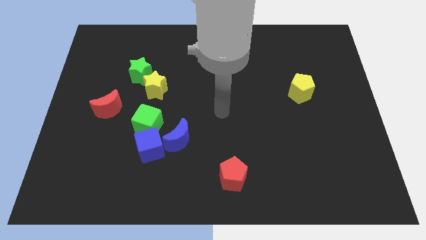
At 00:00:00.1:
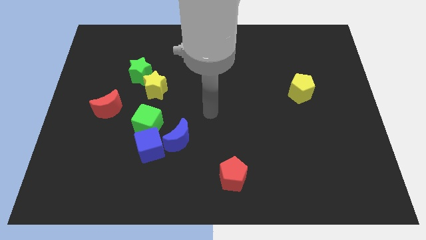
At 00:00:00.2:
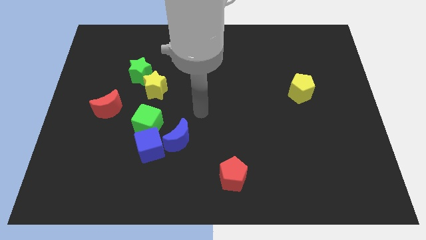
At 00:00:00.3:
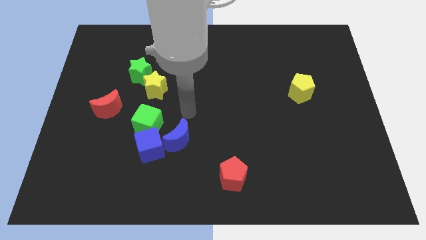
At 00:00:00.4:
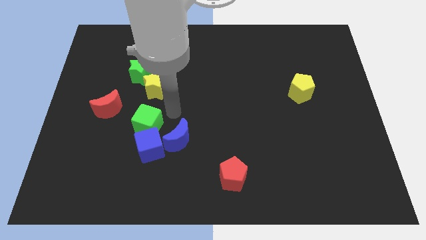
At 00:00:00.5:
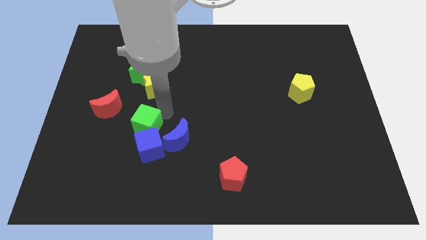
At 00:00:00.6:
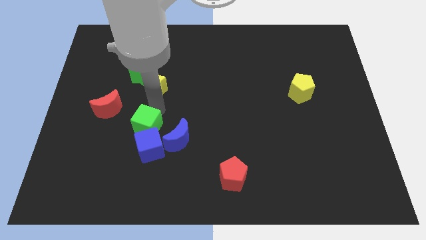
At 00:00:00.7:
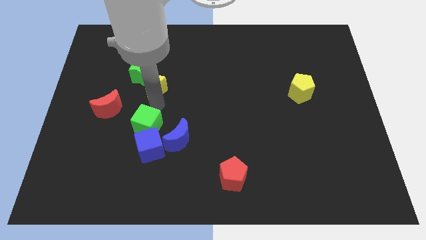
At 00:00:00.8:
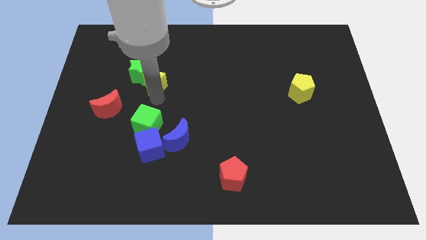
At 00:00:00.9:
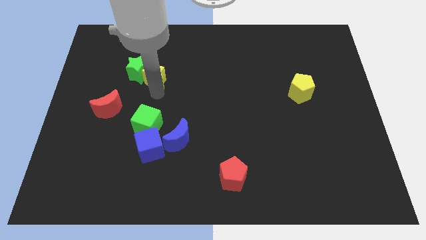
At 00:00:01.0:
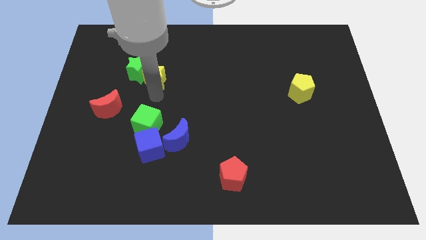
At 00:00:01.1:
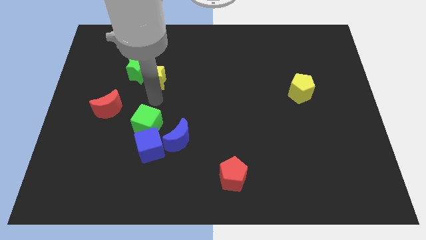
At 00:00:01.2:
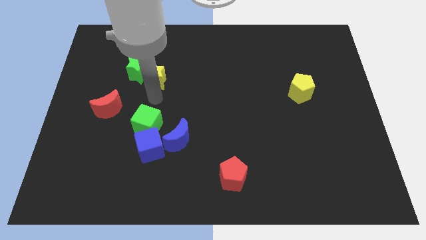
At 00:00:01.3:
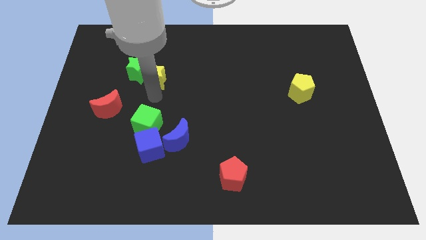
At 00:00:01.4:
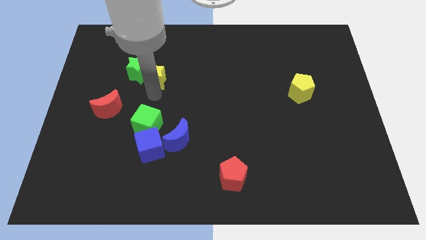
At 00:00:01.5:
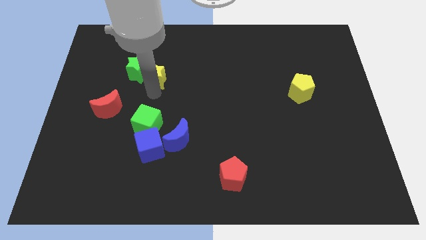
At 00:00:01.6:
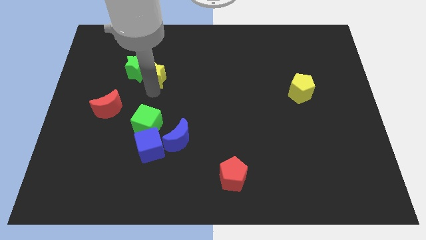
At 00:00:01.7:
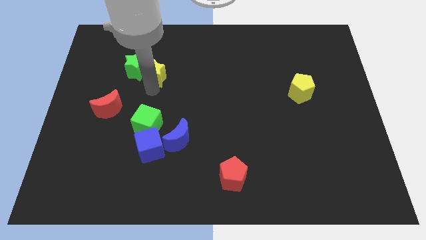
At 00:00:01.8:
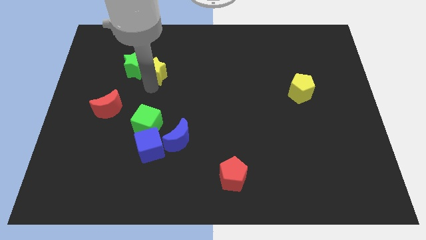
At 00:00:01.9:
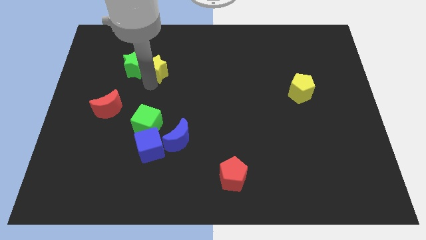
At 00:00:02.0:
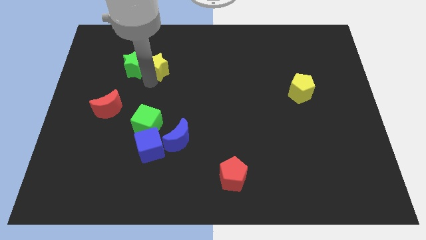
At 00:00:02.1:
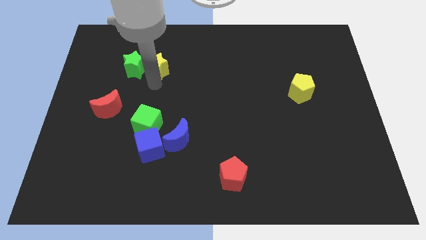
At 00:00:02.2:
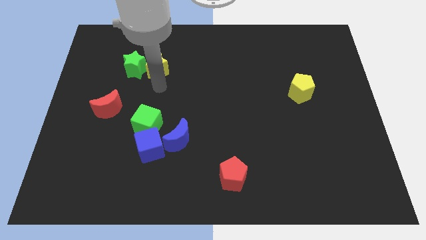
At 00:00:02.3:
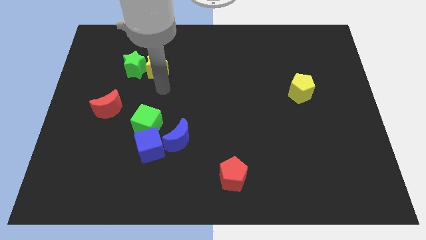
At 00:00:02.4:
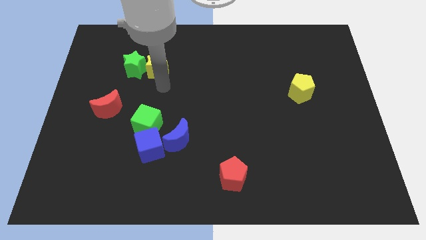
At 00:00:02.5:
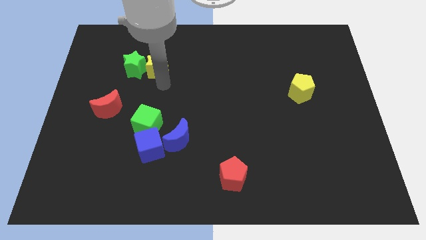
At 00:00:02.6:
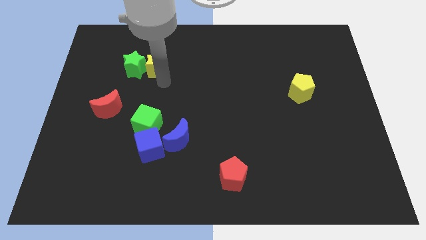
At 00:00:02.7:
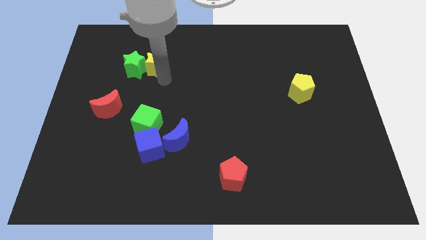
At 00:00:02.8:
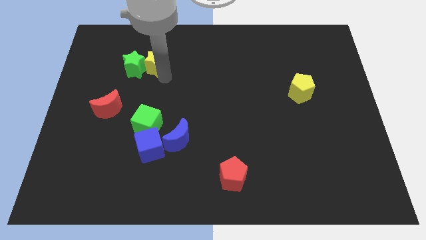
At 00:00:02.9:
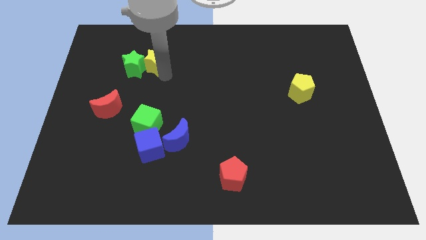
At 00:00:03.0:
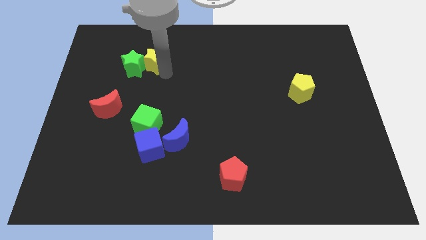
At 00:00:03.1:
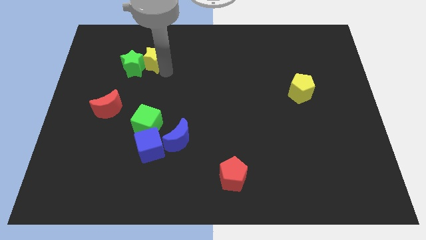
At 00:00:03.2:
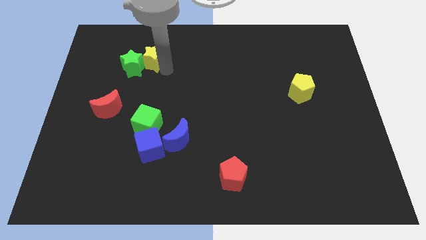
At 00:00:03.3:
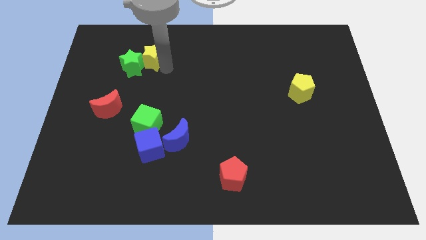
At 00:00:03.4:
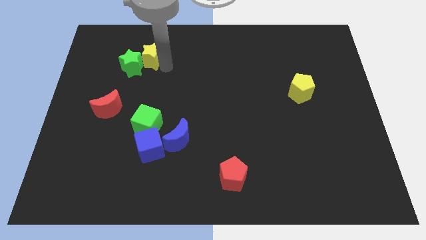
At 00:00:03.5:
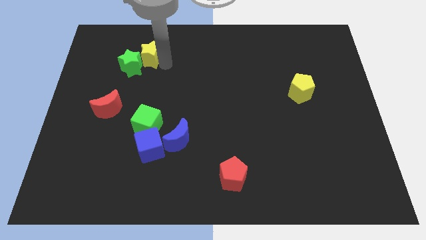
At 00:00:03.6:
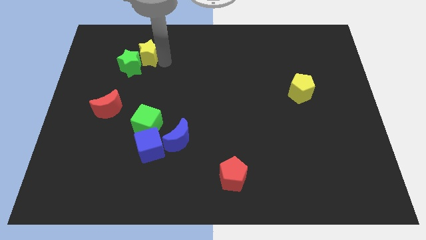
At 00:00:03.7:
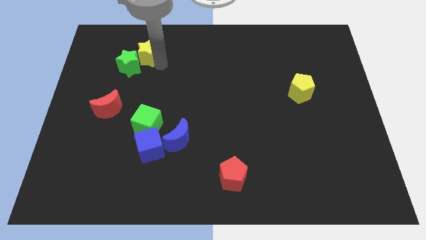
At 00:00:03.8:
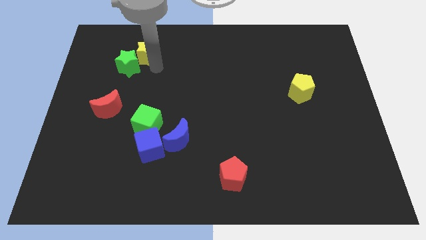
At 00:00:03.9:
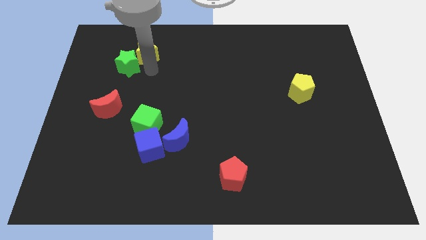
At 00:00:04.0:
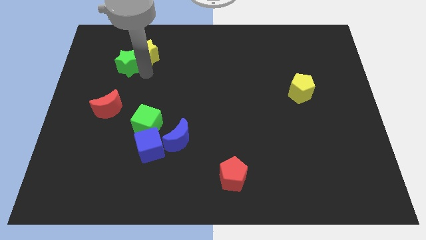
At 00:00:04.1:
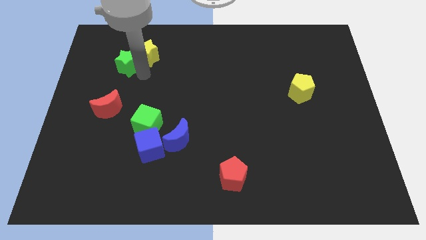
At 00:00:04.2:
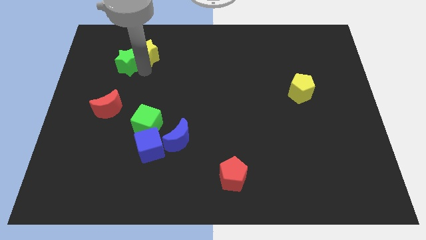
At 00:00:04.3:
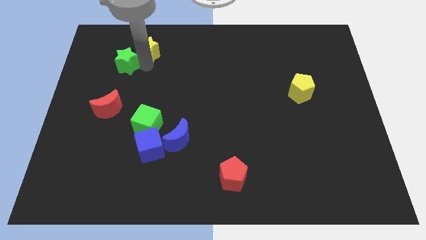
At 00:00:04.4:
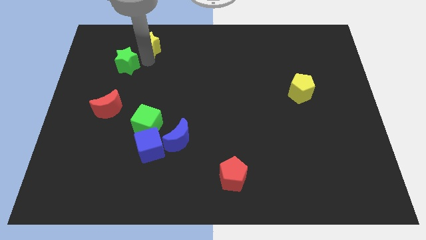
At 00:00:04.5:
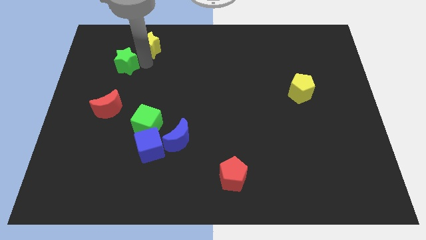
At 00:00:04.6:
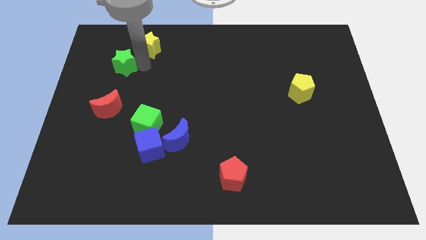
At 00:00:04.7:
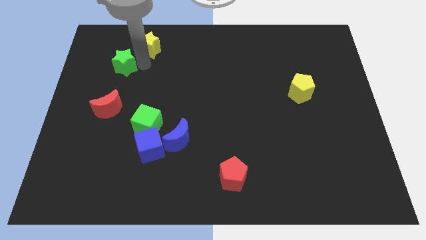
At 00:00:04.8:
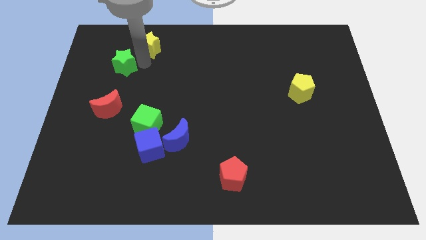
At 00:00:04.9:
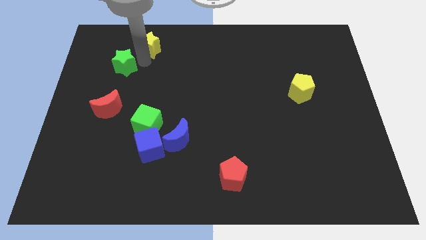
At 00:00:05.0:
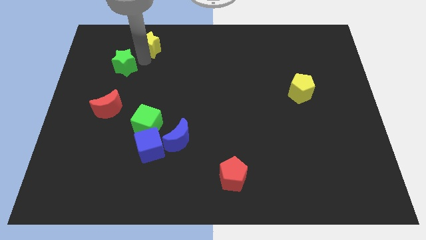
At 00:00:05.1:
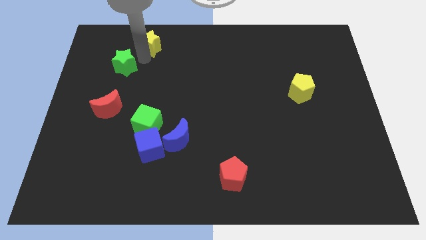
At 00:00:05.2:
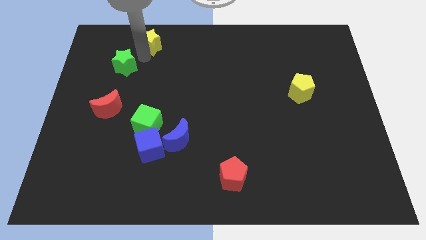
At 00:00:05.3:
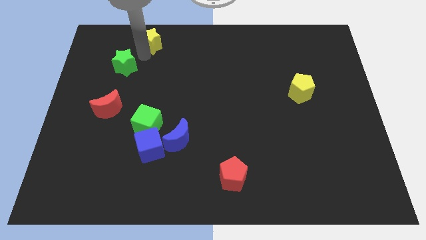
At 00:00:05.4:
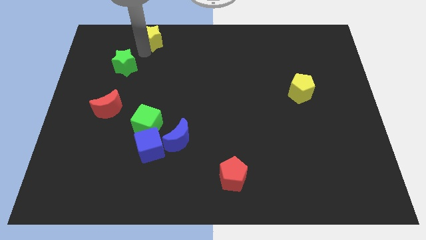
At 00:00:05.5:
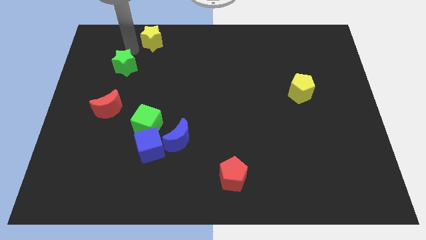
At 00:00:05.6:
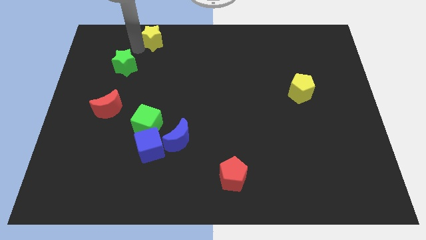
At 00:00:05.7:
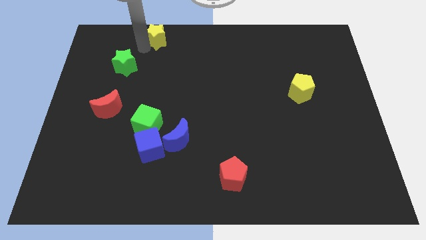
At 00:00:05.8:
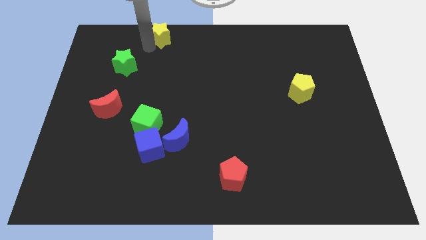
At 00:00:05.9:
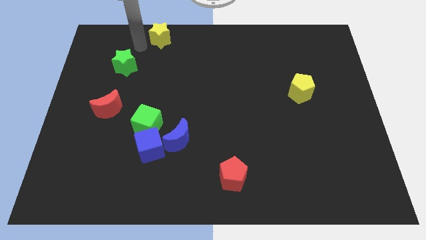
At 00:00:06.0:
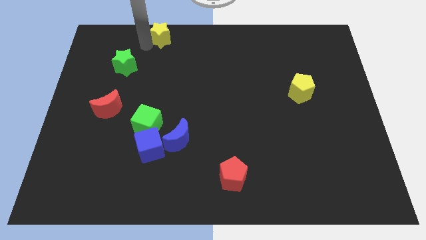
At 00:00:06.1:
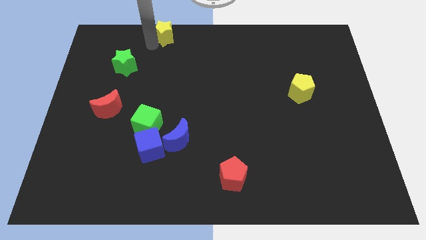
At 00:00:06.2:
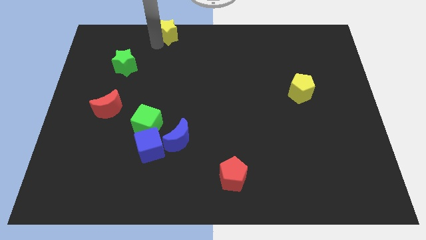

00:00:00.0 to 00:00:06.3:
put the yellow star to the towards your base
